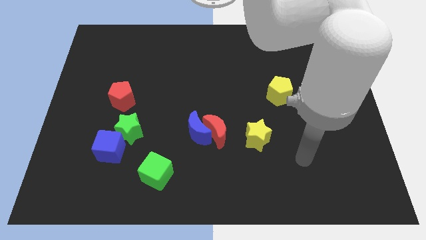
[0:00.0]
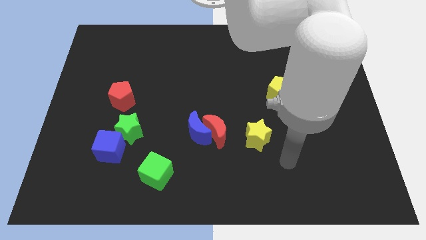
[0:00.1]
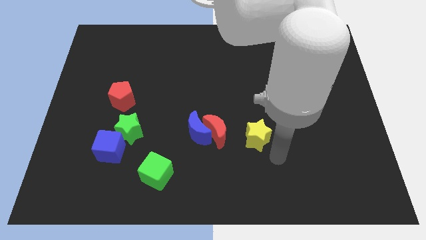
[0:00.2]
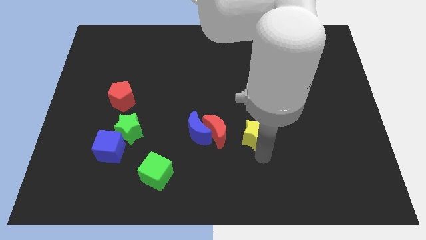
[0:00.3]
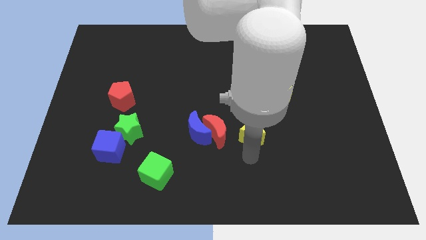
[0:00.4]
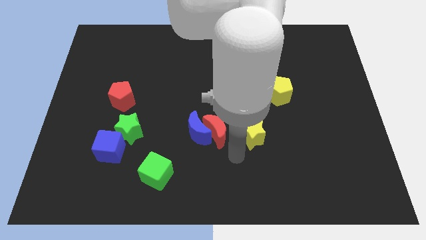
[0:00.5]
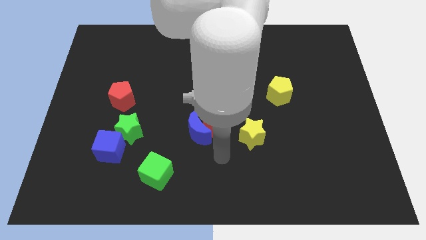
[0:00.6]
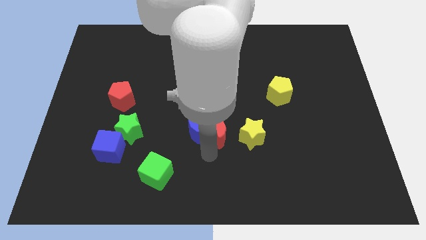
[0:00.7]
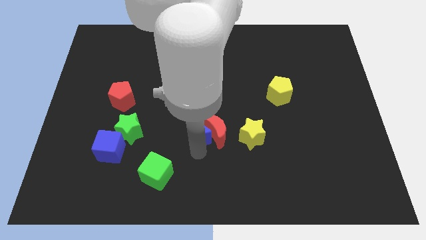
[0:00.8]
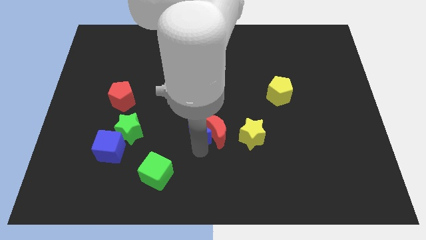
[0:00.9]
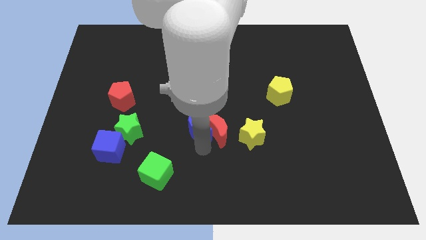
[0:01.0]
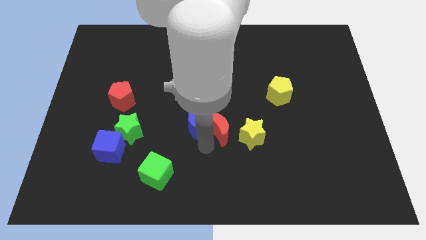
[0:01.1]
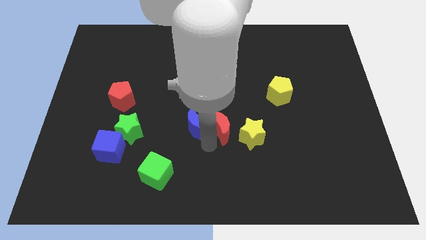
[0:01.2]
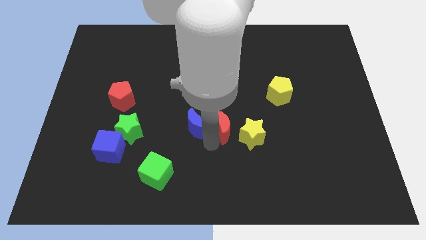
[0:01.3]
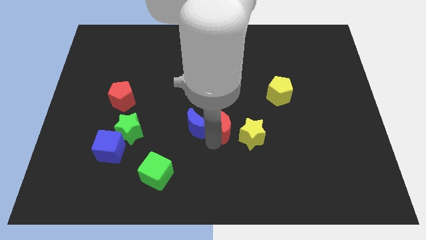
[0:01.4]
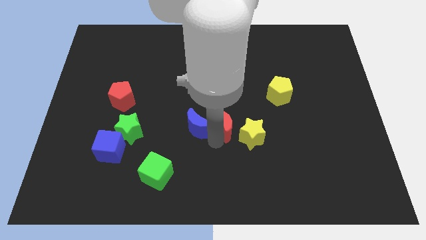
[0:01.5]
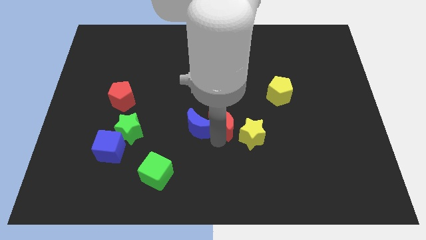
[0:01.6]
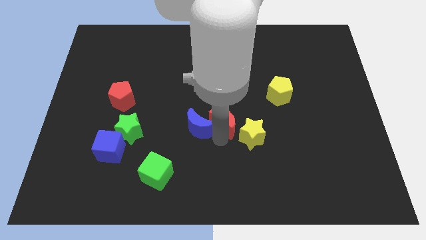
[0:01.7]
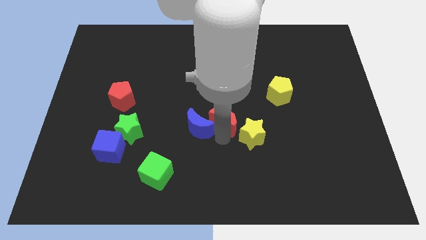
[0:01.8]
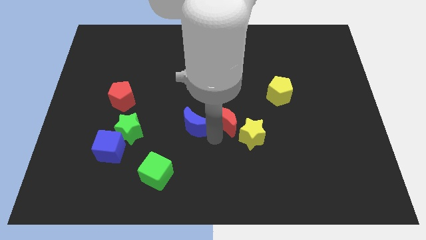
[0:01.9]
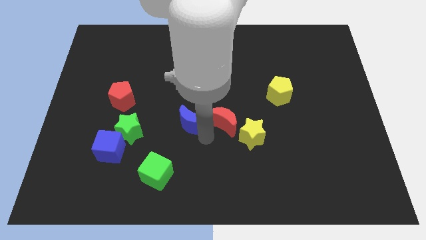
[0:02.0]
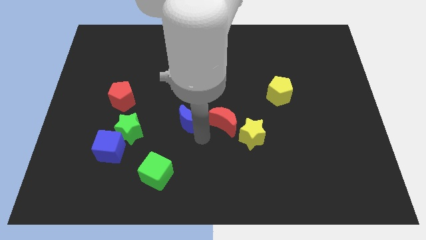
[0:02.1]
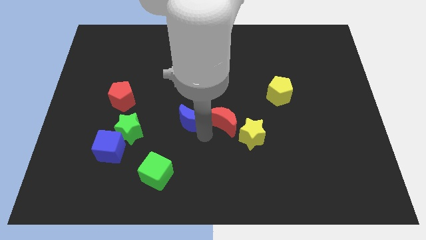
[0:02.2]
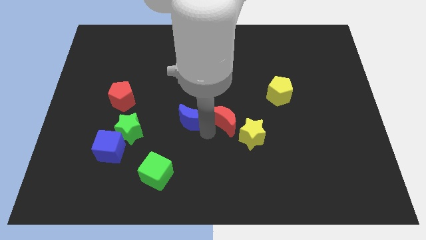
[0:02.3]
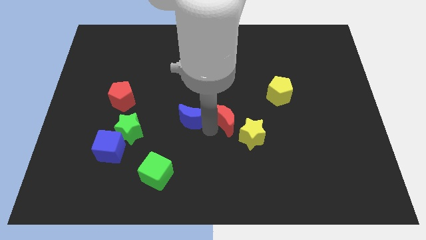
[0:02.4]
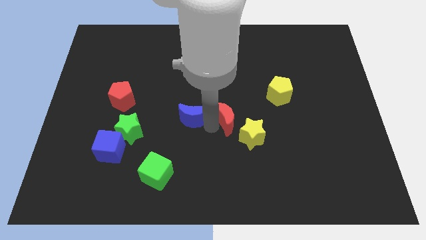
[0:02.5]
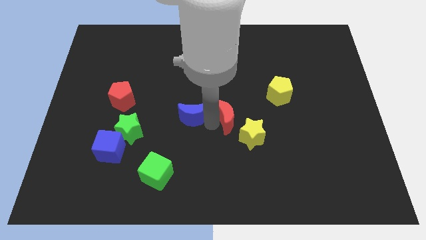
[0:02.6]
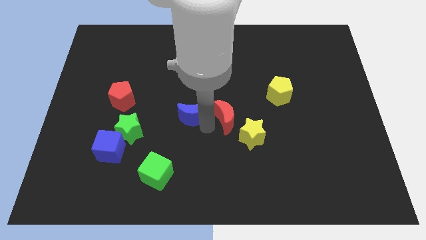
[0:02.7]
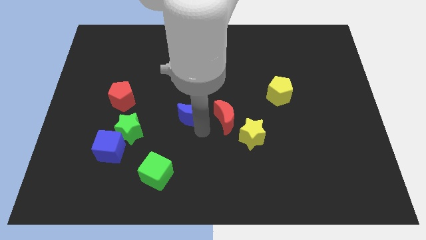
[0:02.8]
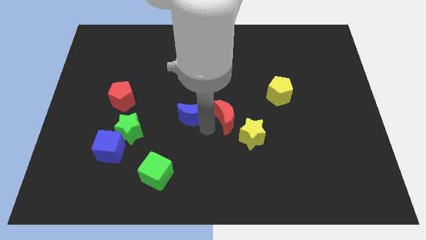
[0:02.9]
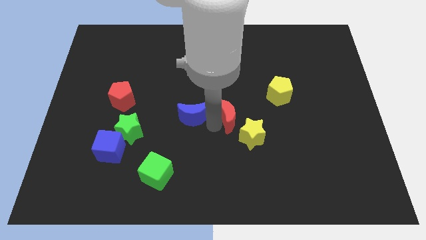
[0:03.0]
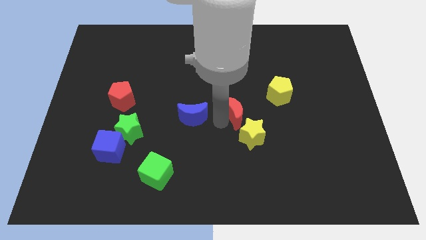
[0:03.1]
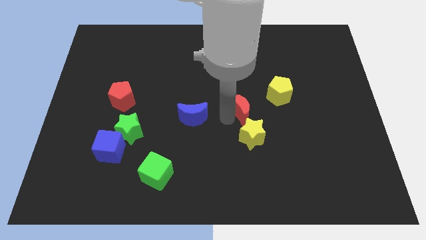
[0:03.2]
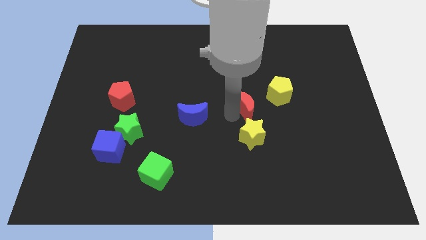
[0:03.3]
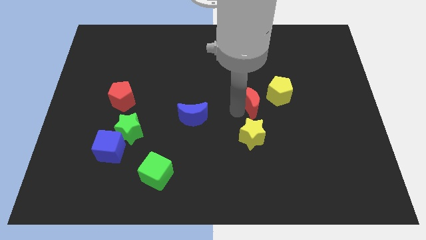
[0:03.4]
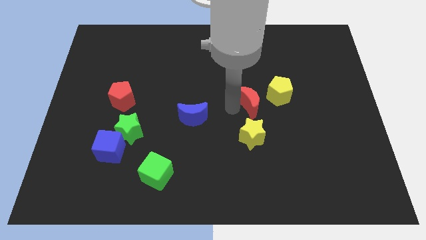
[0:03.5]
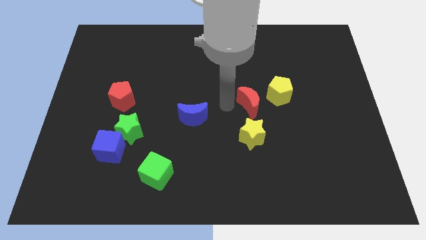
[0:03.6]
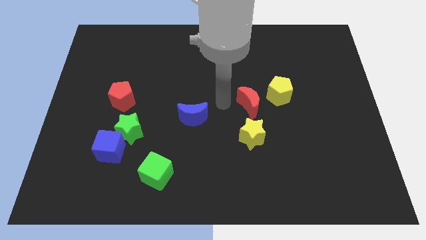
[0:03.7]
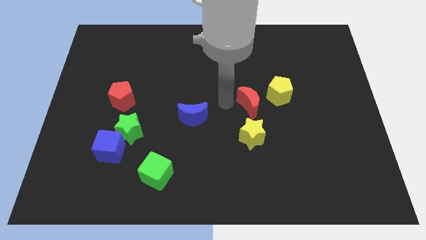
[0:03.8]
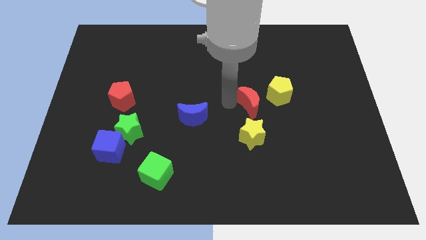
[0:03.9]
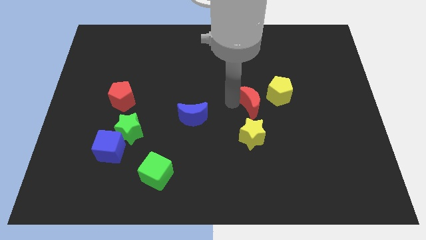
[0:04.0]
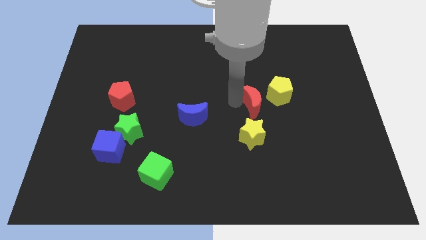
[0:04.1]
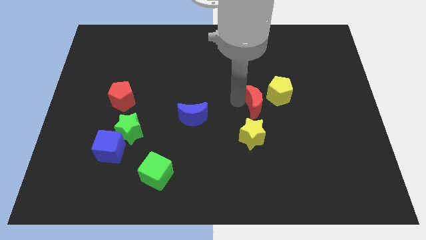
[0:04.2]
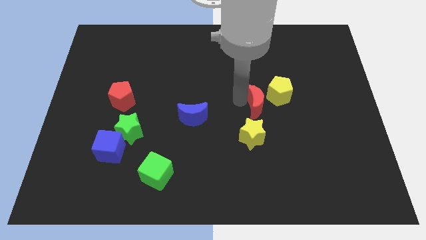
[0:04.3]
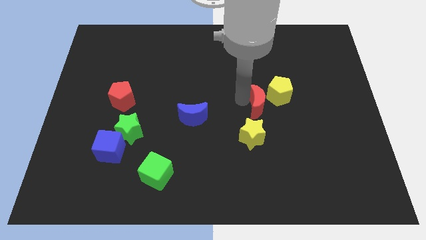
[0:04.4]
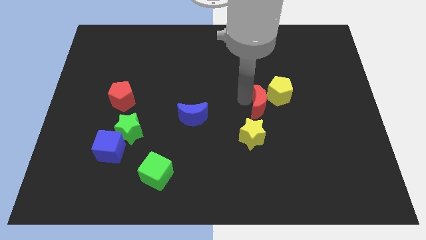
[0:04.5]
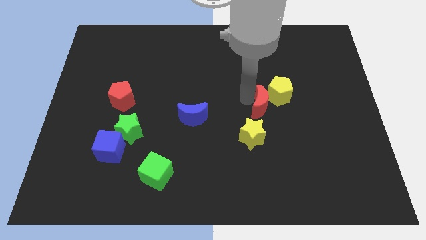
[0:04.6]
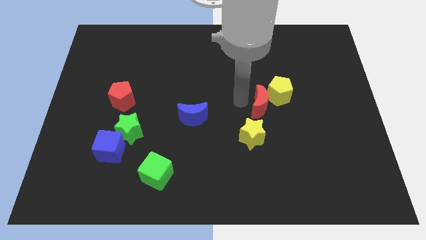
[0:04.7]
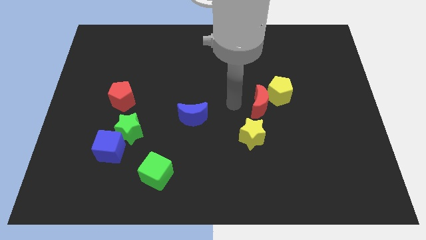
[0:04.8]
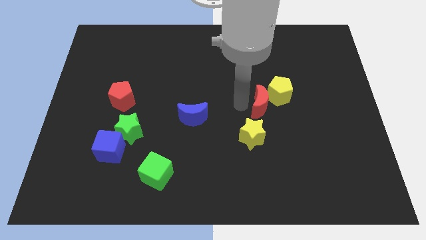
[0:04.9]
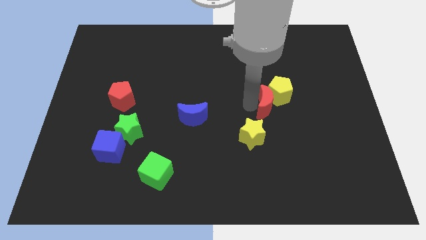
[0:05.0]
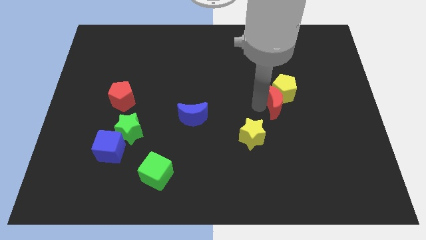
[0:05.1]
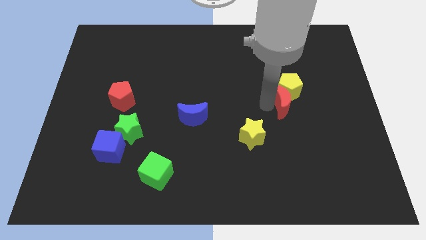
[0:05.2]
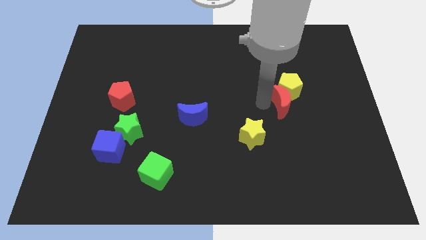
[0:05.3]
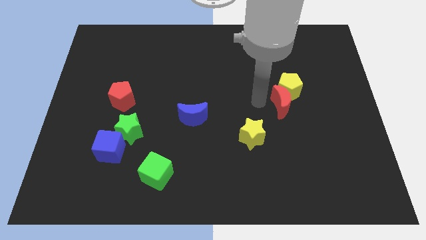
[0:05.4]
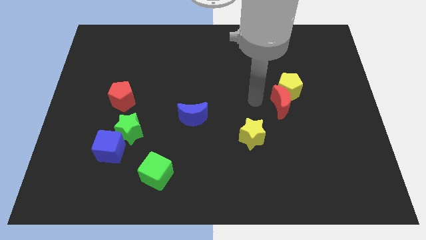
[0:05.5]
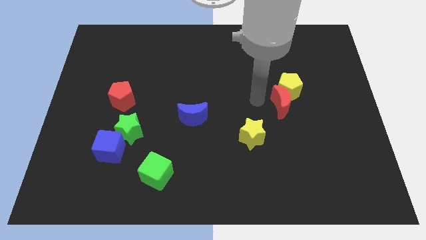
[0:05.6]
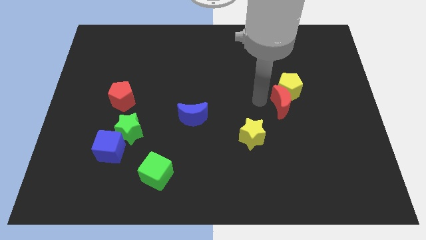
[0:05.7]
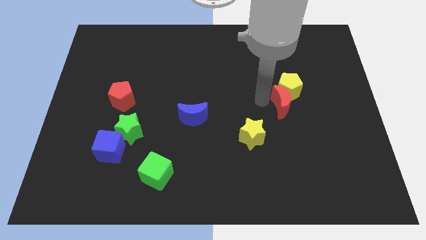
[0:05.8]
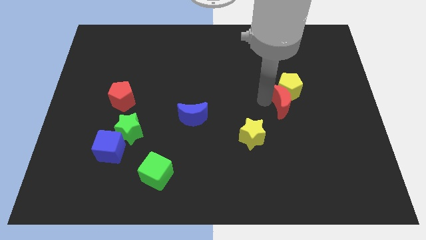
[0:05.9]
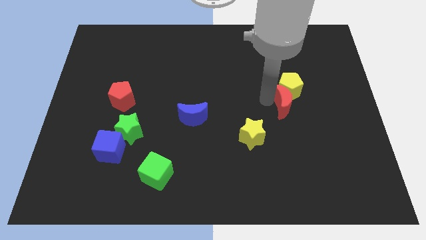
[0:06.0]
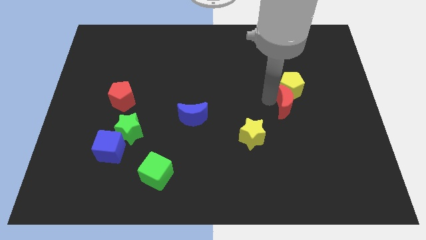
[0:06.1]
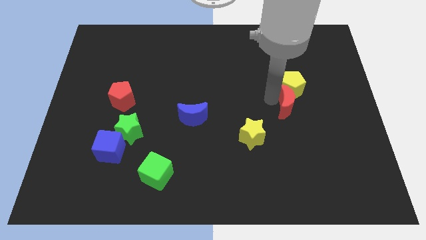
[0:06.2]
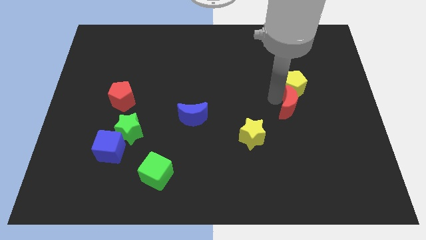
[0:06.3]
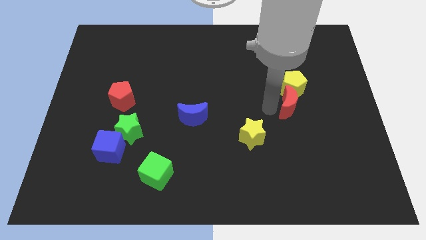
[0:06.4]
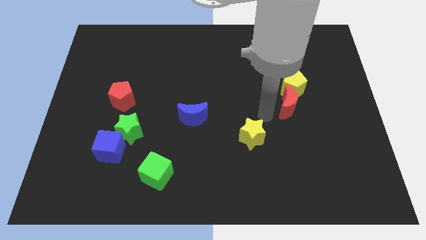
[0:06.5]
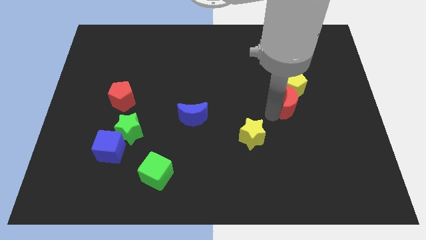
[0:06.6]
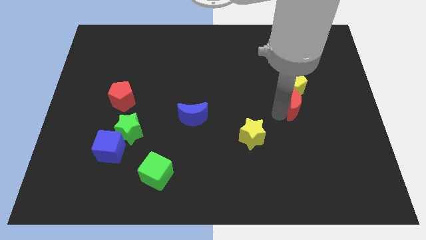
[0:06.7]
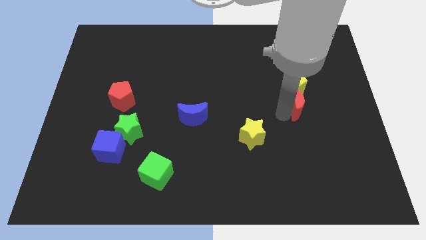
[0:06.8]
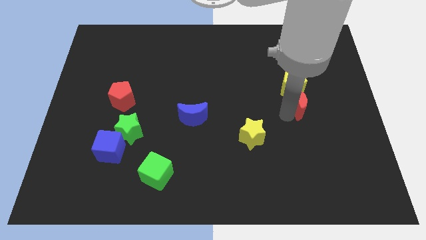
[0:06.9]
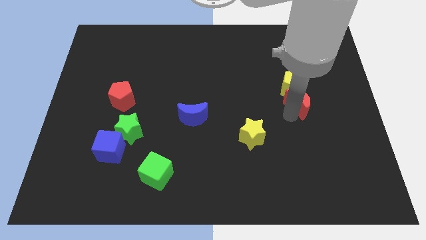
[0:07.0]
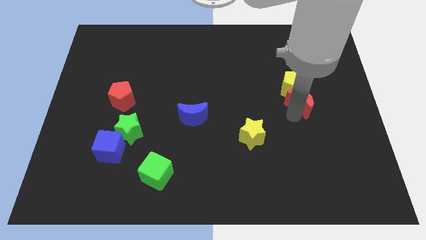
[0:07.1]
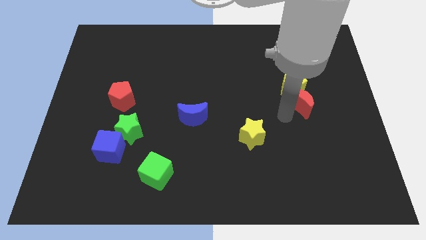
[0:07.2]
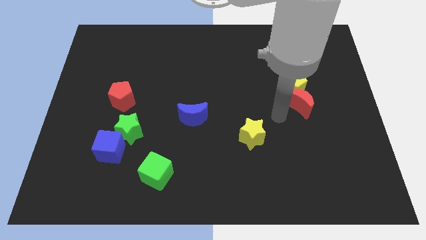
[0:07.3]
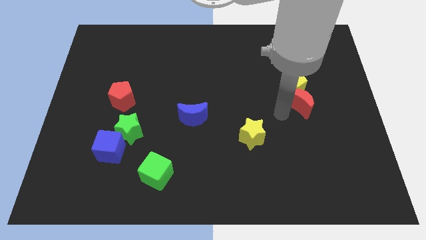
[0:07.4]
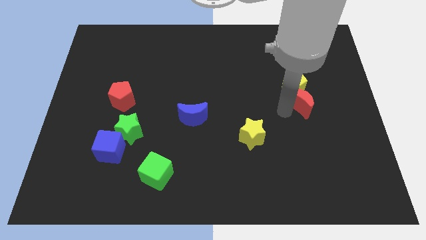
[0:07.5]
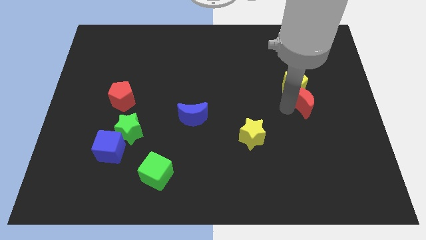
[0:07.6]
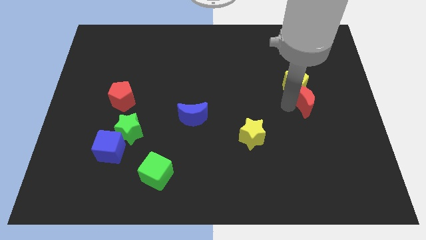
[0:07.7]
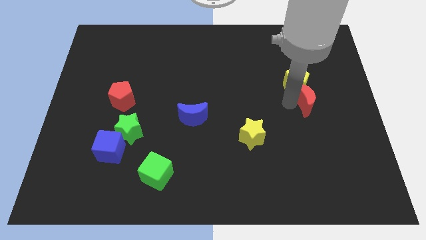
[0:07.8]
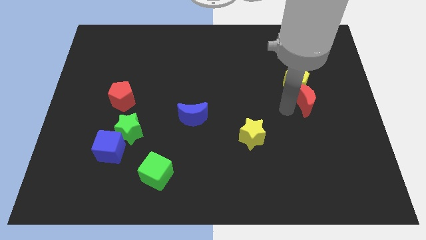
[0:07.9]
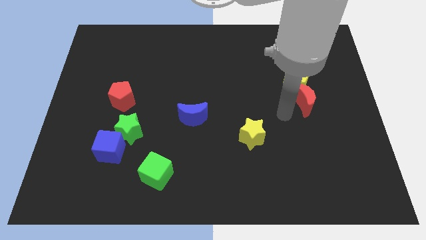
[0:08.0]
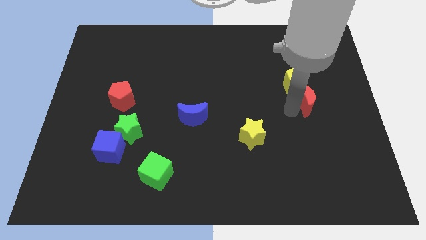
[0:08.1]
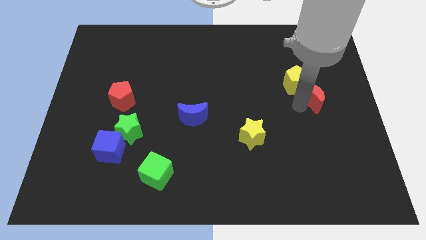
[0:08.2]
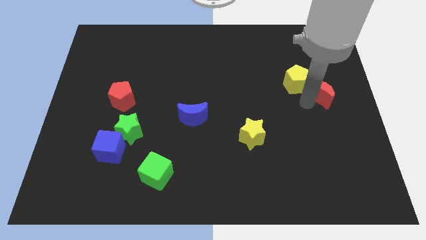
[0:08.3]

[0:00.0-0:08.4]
put the red moon right of the yellow pentagon
